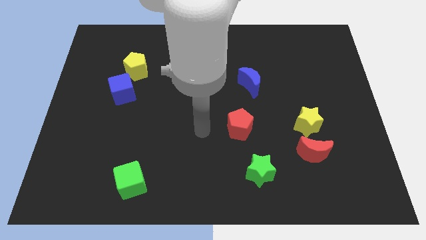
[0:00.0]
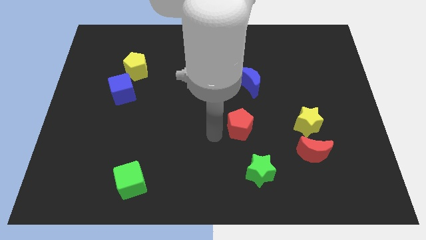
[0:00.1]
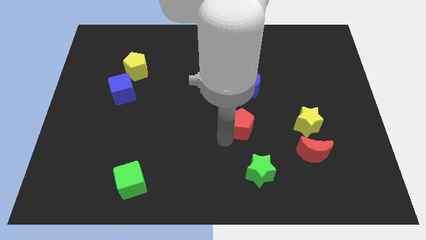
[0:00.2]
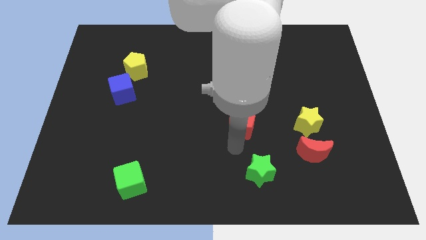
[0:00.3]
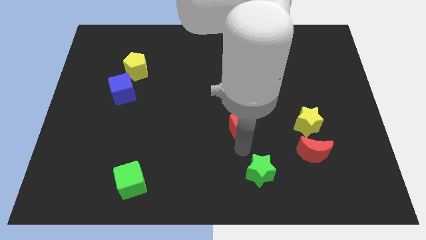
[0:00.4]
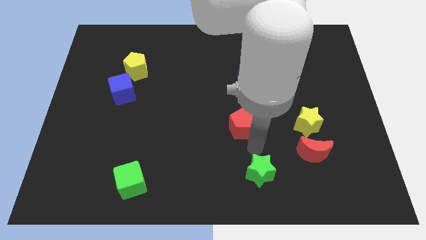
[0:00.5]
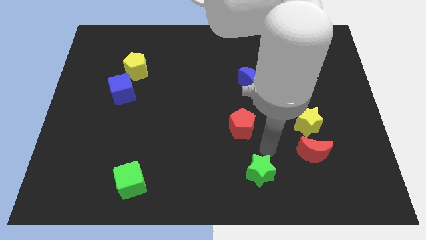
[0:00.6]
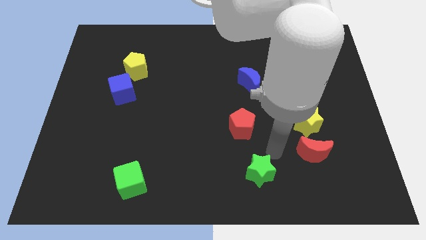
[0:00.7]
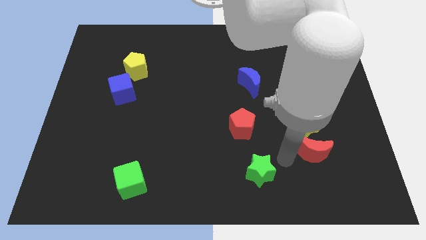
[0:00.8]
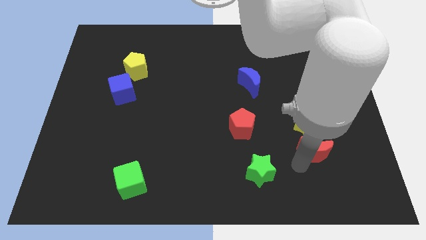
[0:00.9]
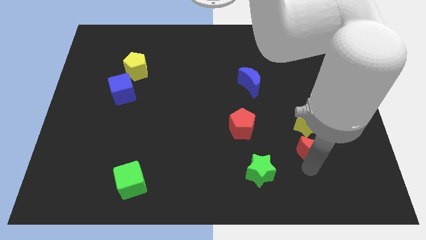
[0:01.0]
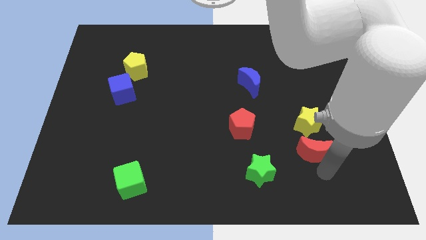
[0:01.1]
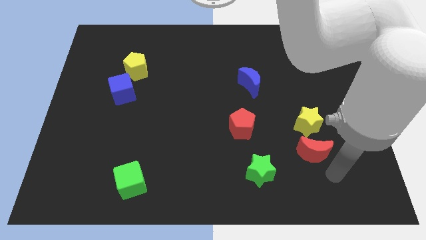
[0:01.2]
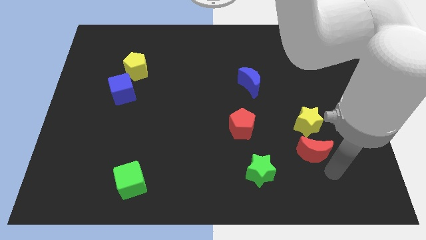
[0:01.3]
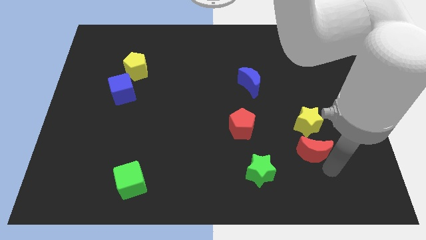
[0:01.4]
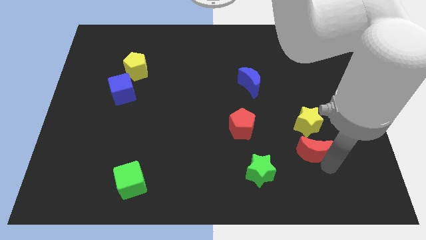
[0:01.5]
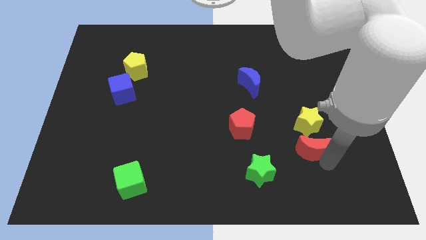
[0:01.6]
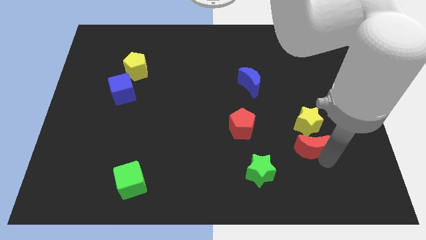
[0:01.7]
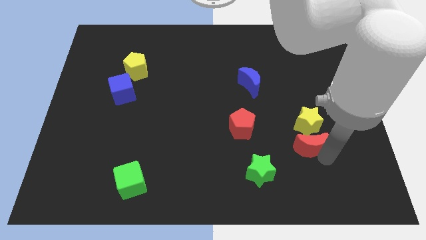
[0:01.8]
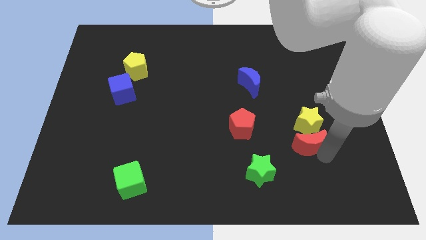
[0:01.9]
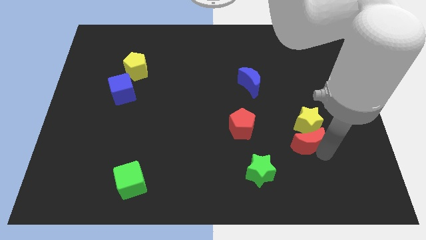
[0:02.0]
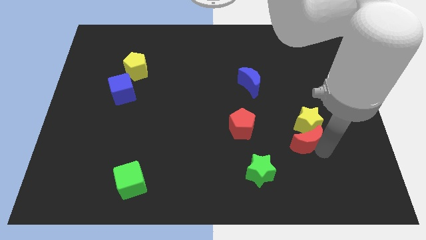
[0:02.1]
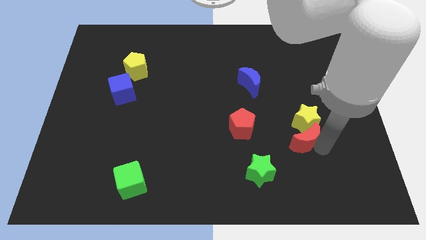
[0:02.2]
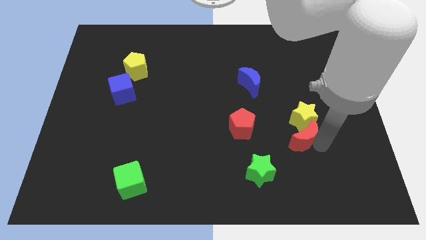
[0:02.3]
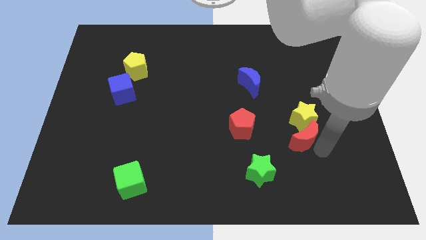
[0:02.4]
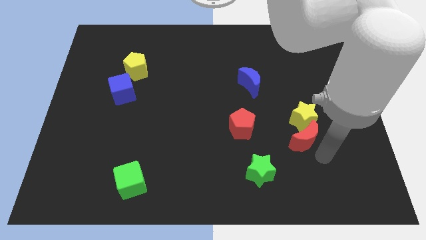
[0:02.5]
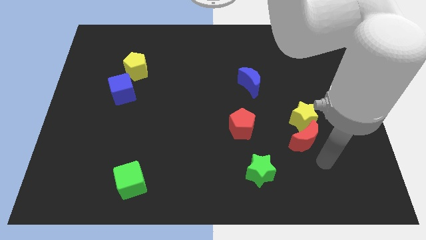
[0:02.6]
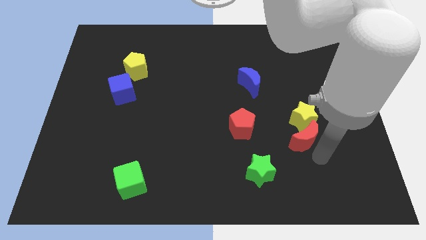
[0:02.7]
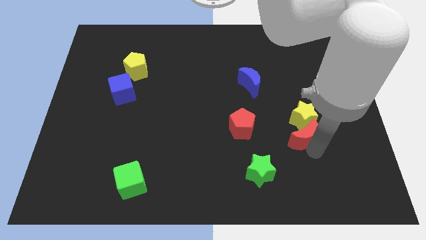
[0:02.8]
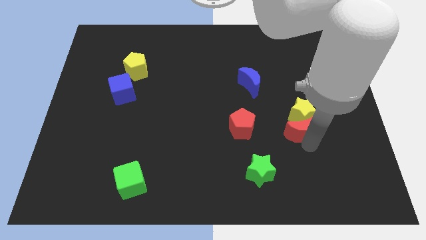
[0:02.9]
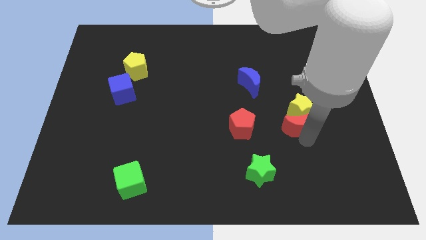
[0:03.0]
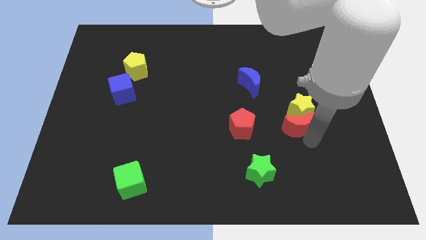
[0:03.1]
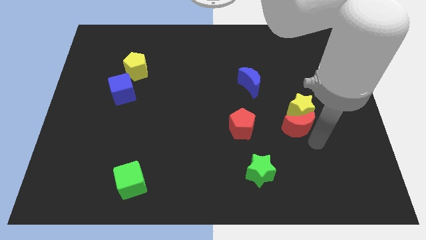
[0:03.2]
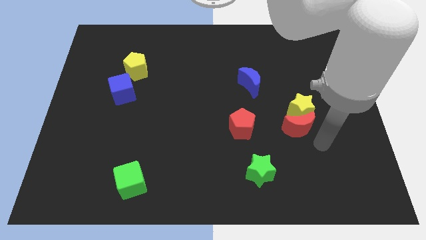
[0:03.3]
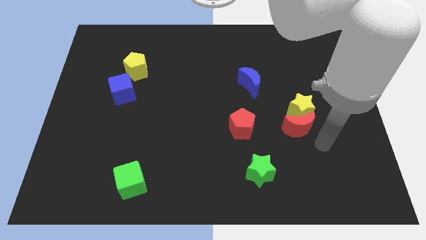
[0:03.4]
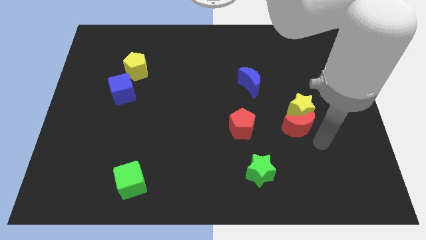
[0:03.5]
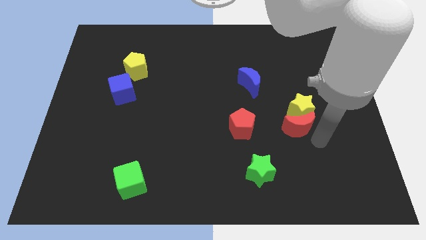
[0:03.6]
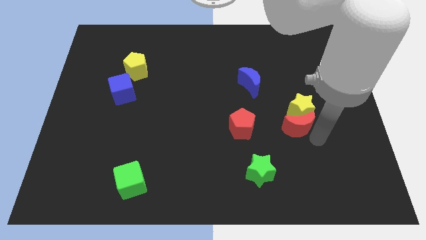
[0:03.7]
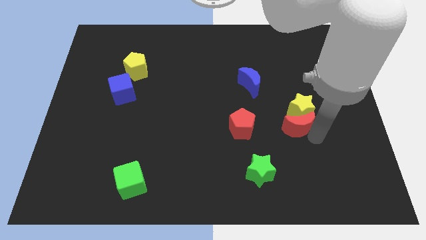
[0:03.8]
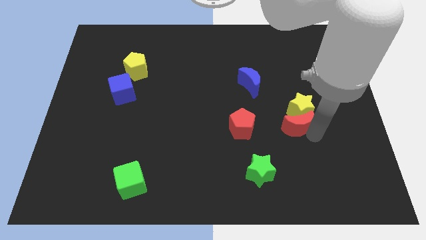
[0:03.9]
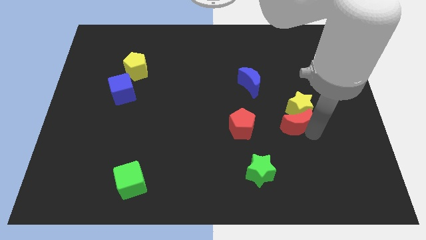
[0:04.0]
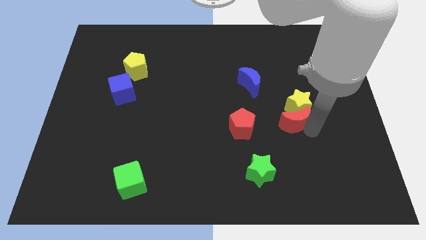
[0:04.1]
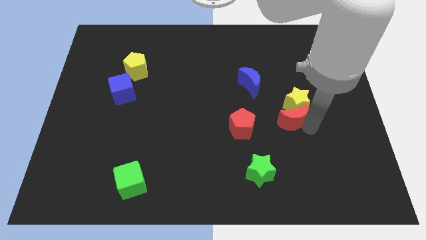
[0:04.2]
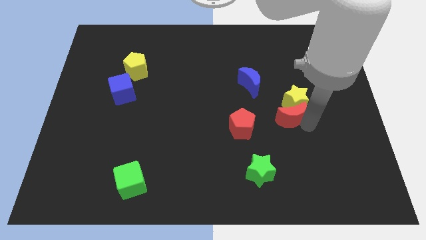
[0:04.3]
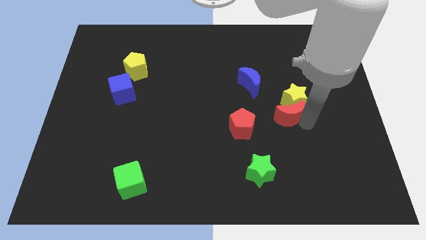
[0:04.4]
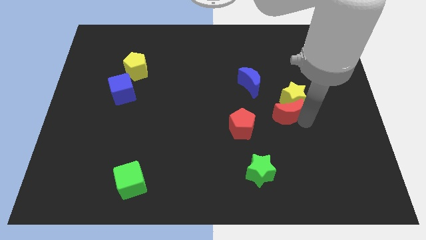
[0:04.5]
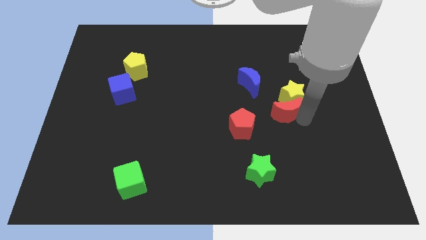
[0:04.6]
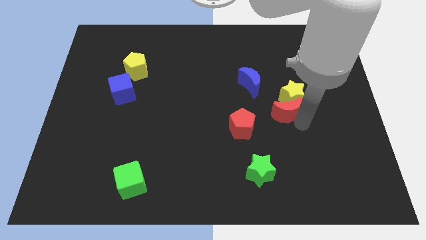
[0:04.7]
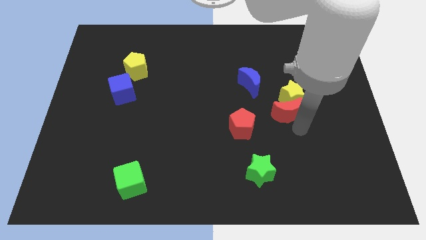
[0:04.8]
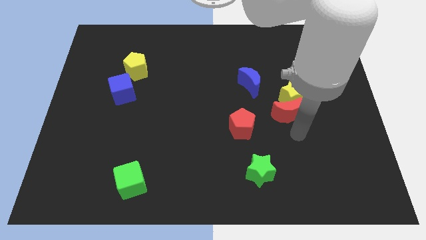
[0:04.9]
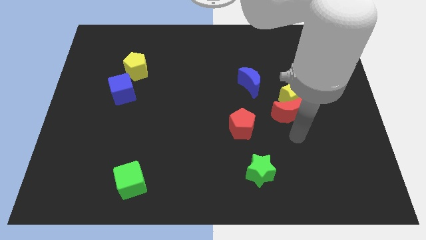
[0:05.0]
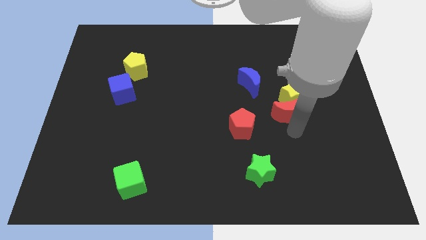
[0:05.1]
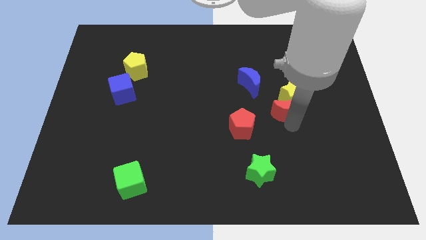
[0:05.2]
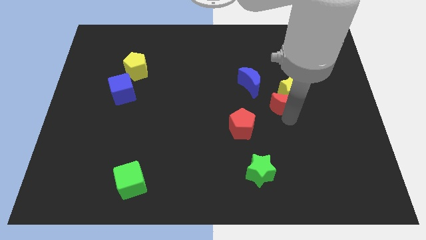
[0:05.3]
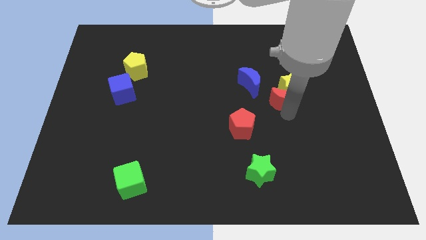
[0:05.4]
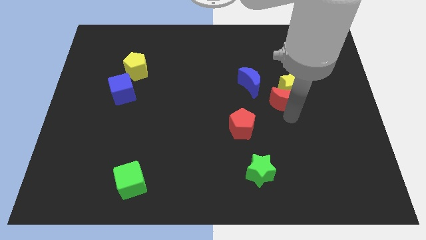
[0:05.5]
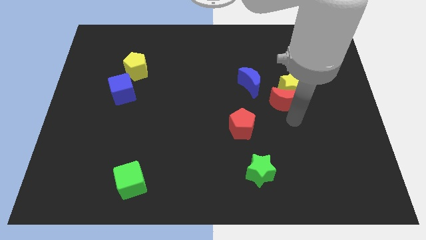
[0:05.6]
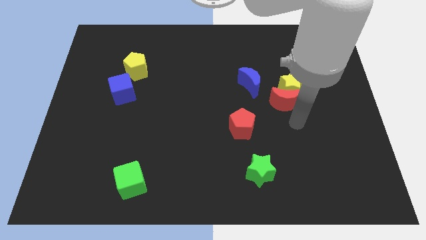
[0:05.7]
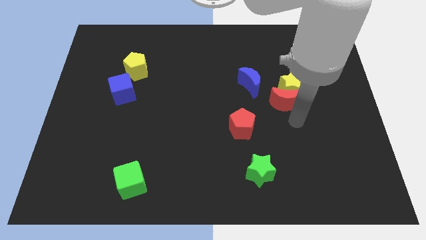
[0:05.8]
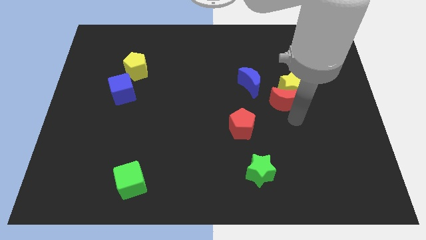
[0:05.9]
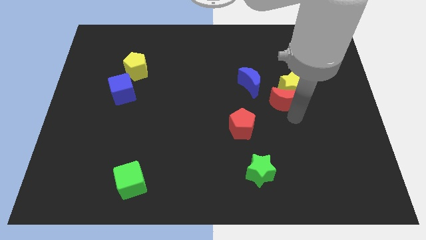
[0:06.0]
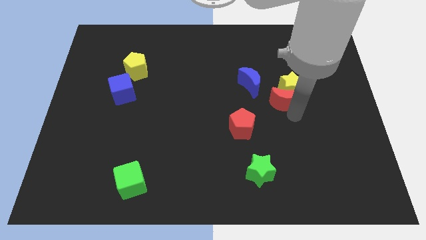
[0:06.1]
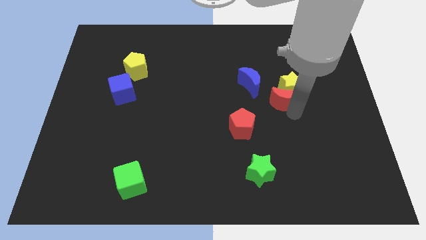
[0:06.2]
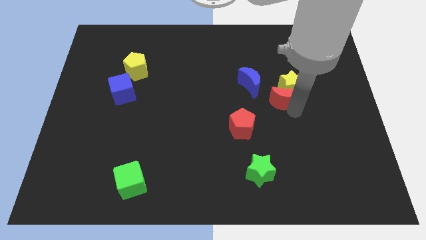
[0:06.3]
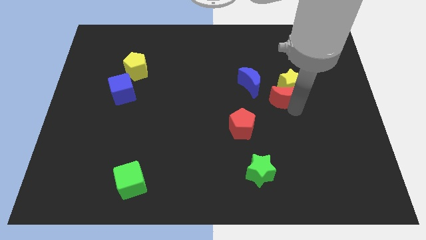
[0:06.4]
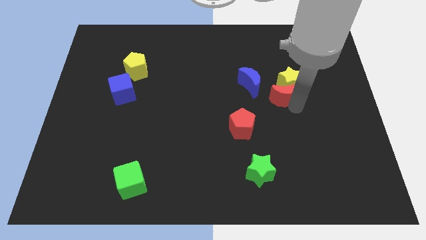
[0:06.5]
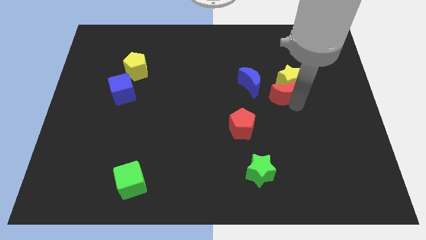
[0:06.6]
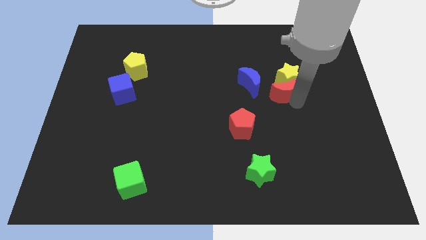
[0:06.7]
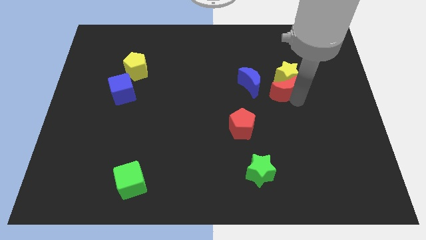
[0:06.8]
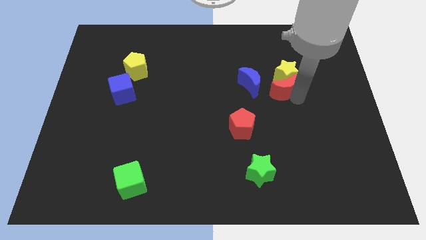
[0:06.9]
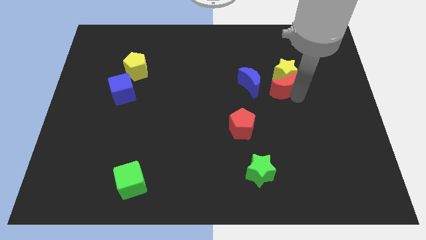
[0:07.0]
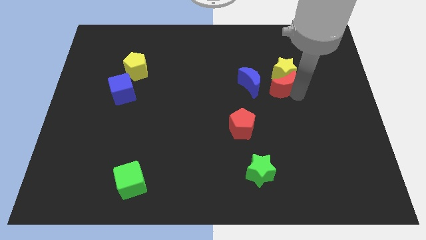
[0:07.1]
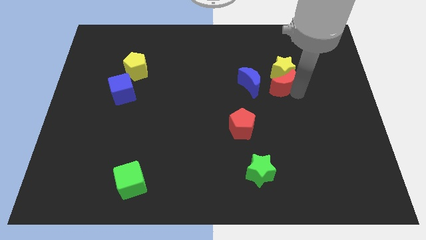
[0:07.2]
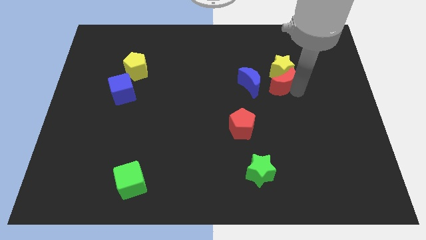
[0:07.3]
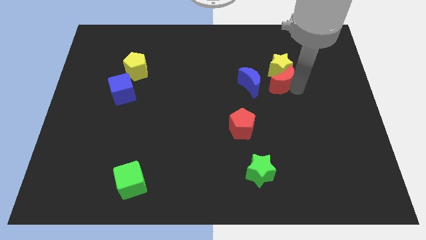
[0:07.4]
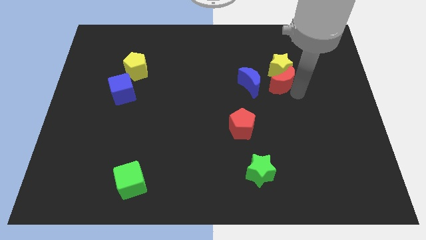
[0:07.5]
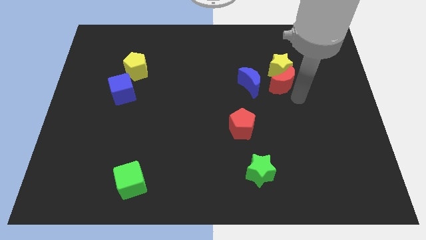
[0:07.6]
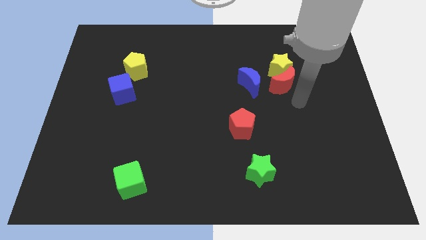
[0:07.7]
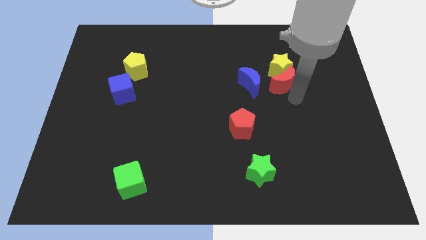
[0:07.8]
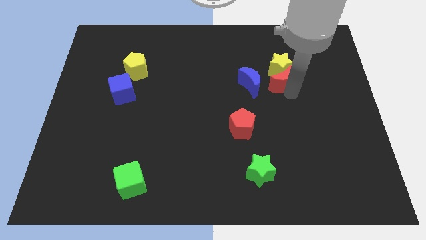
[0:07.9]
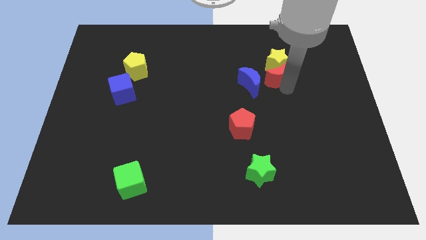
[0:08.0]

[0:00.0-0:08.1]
put the red moon to the top right side of the blue moon

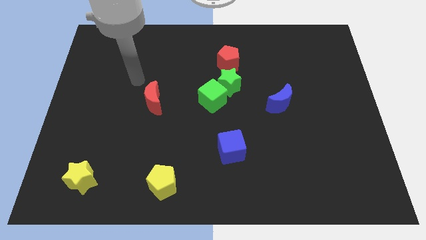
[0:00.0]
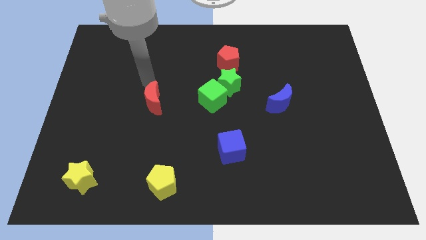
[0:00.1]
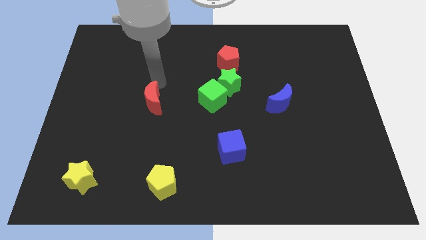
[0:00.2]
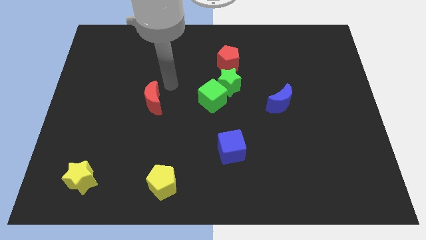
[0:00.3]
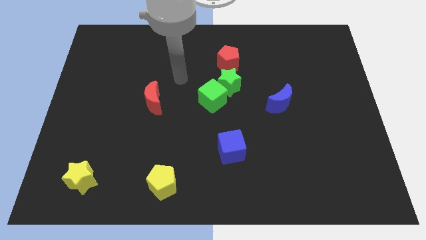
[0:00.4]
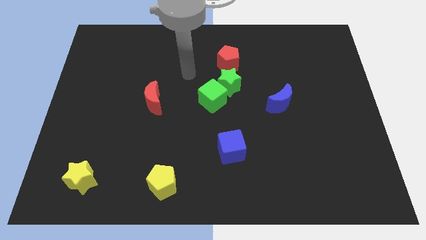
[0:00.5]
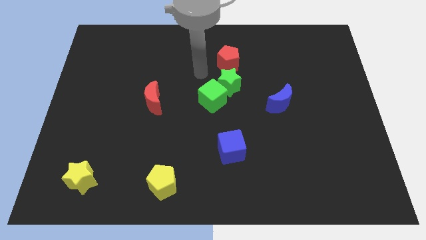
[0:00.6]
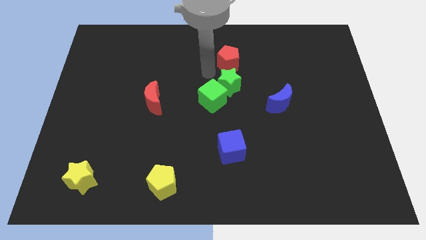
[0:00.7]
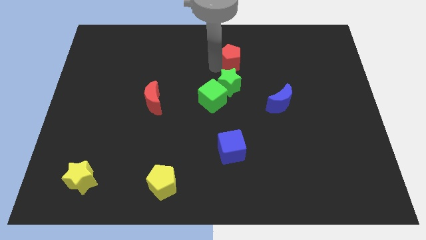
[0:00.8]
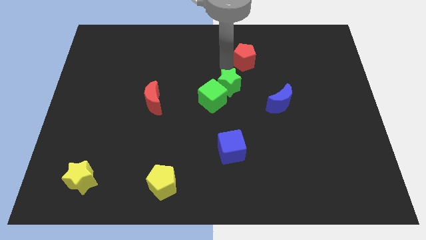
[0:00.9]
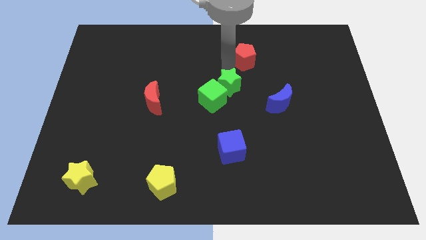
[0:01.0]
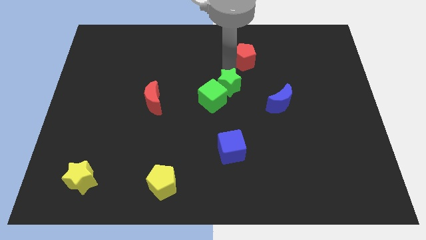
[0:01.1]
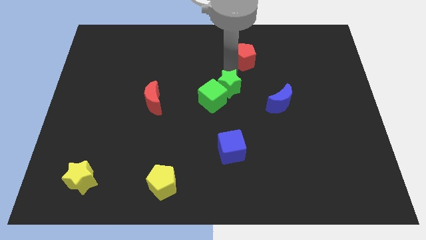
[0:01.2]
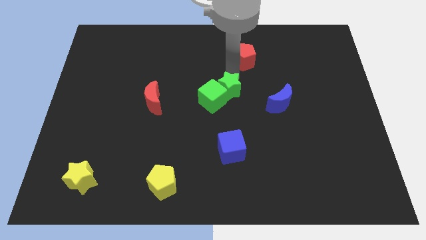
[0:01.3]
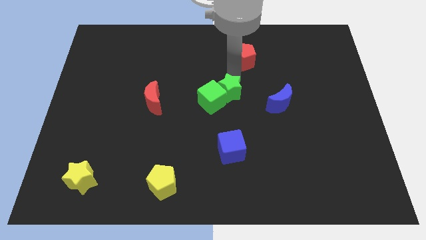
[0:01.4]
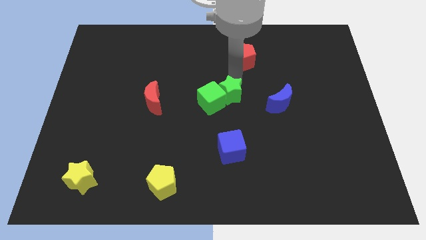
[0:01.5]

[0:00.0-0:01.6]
put the green star above the blue cube
